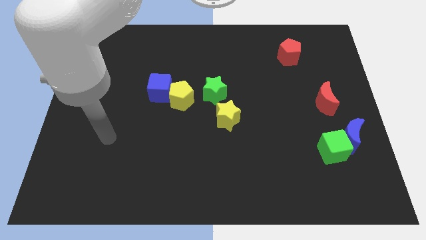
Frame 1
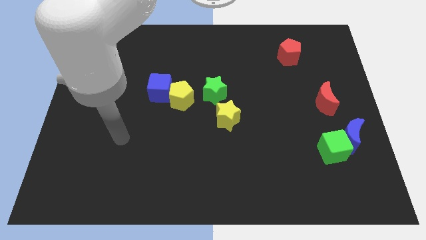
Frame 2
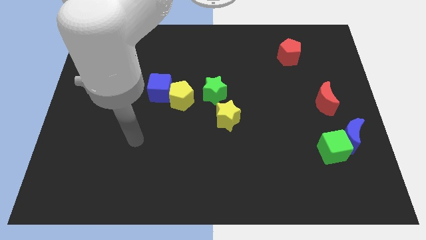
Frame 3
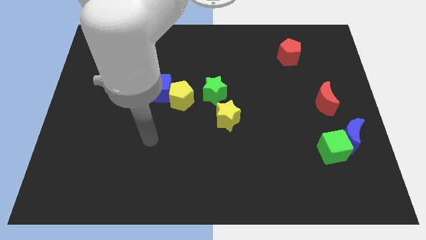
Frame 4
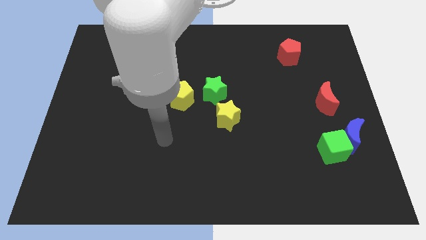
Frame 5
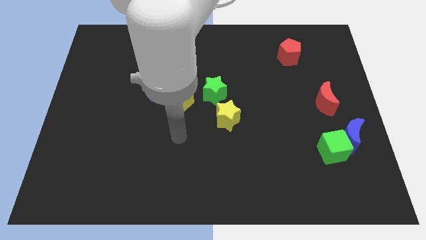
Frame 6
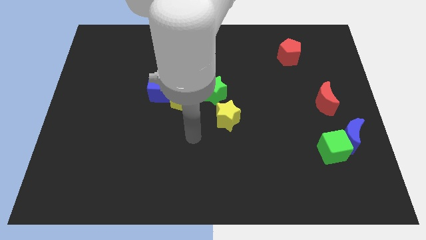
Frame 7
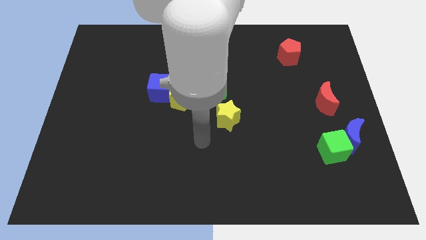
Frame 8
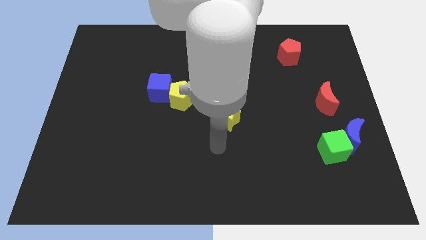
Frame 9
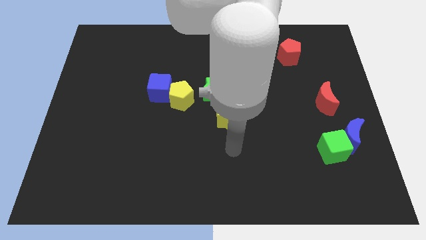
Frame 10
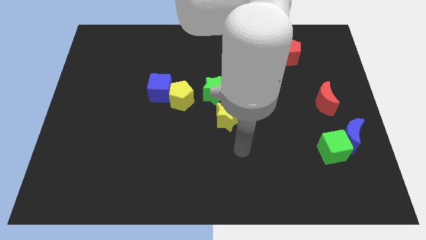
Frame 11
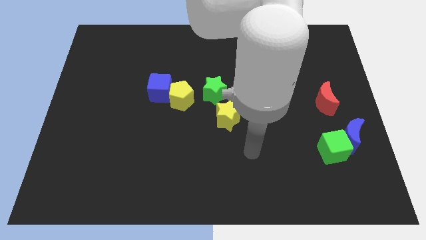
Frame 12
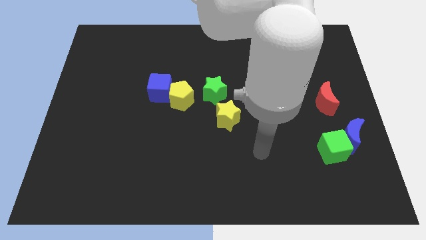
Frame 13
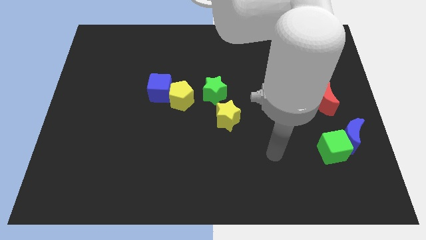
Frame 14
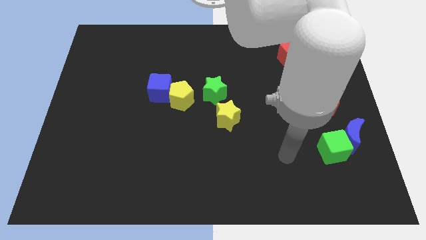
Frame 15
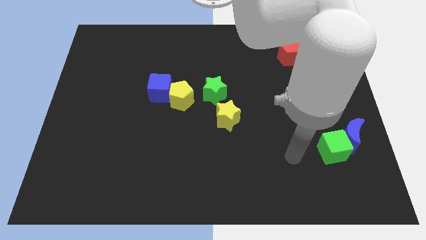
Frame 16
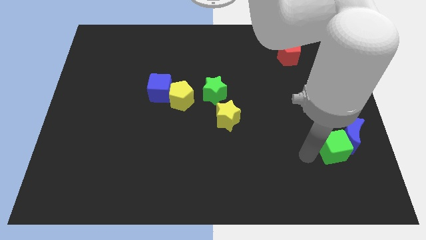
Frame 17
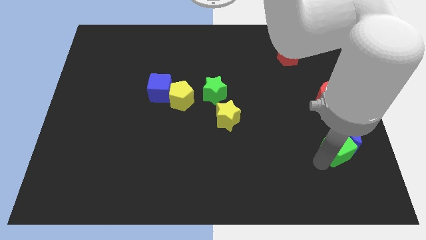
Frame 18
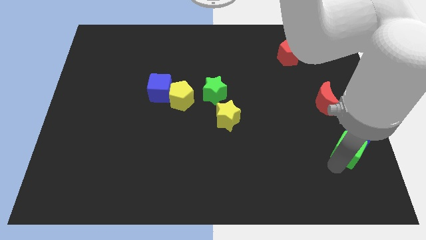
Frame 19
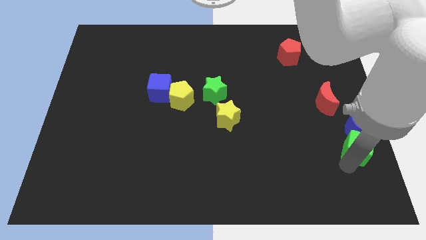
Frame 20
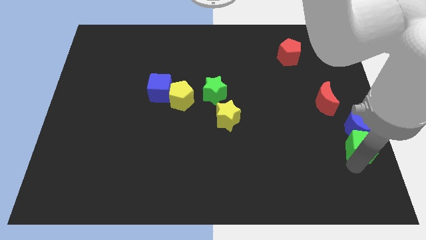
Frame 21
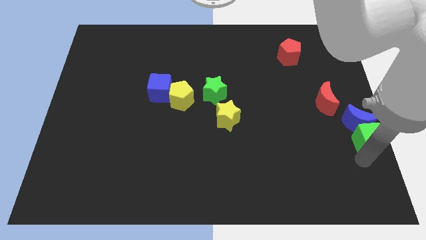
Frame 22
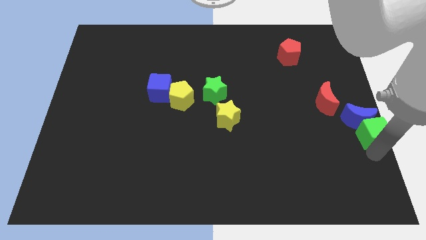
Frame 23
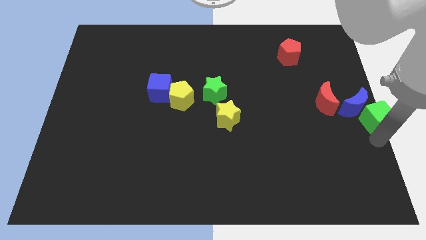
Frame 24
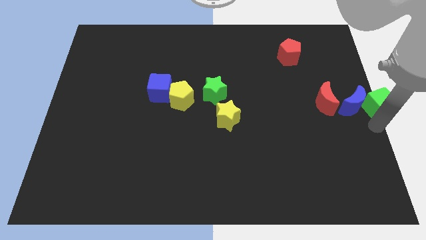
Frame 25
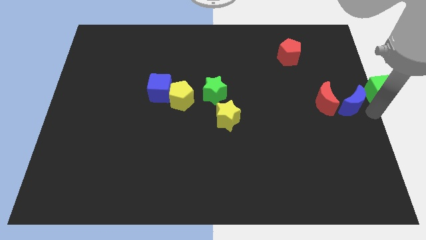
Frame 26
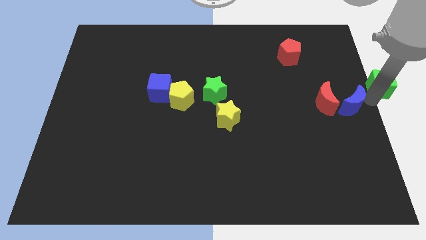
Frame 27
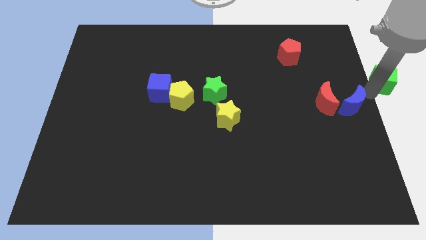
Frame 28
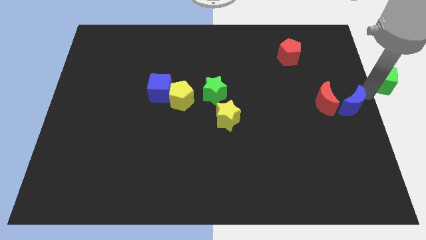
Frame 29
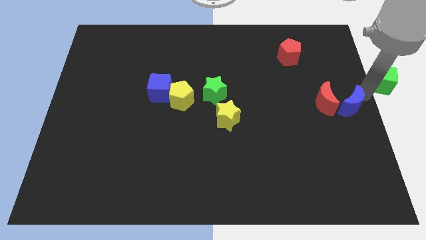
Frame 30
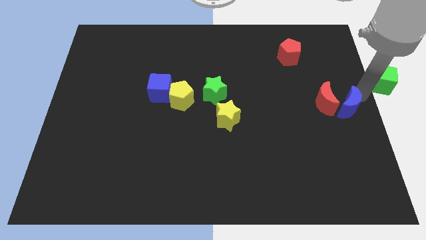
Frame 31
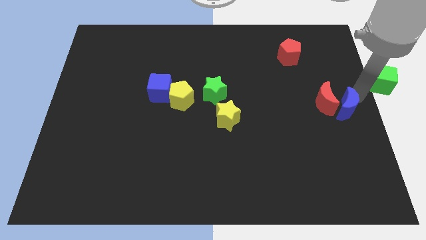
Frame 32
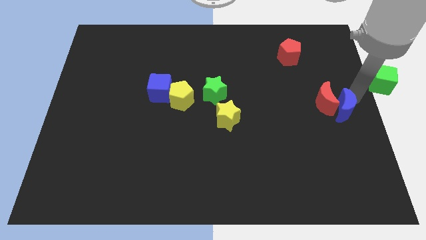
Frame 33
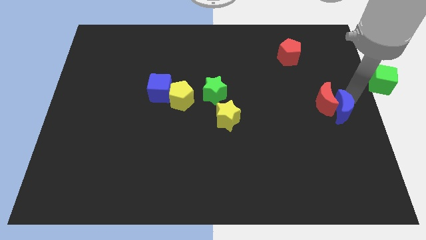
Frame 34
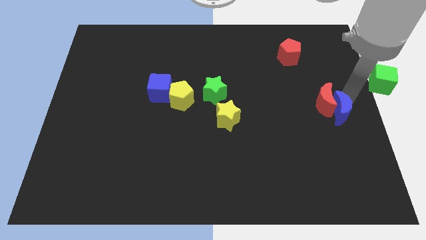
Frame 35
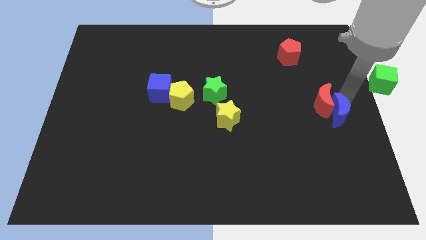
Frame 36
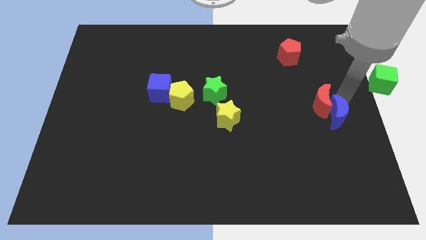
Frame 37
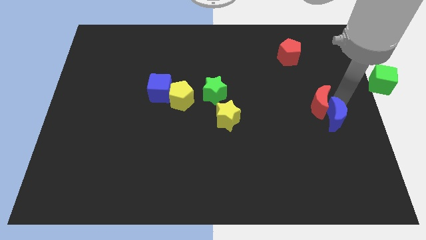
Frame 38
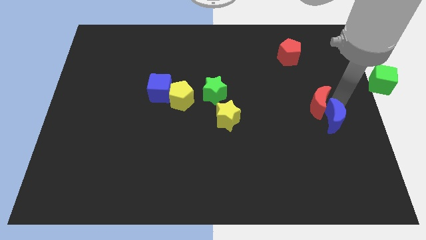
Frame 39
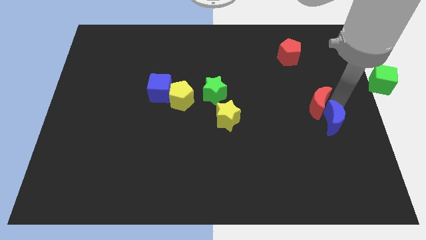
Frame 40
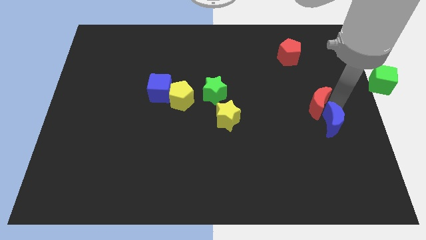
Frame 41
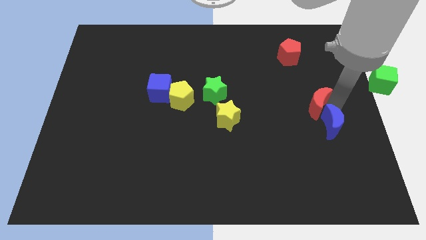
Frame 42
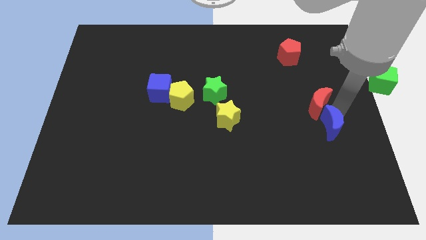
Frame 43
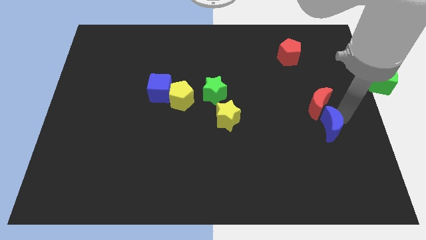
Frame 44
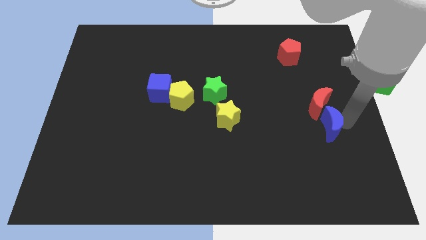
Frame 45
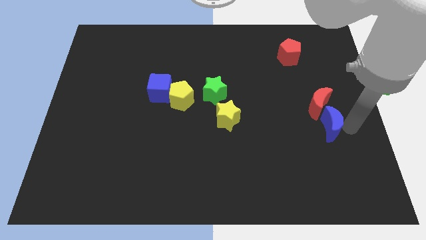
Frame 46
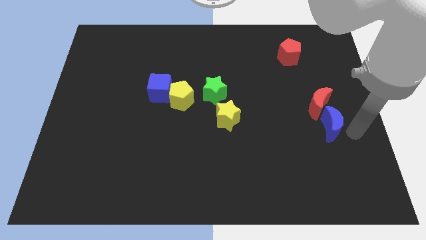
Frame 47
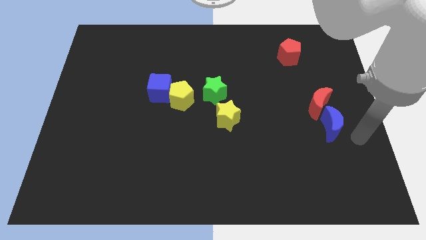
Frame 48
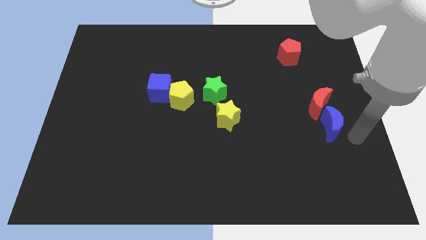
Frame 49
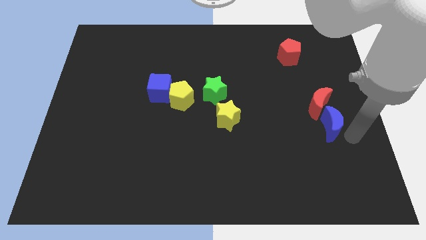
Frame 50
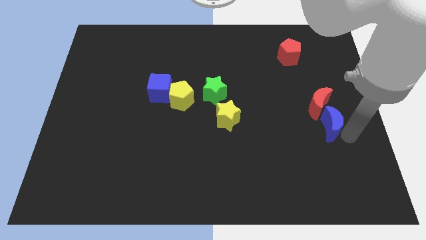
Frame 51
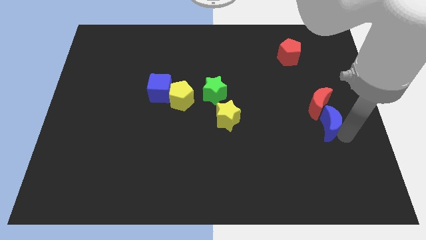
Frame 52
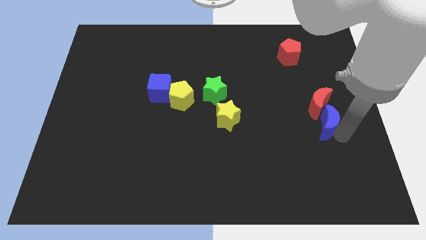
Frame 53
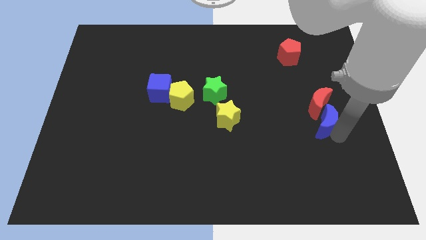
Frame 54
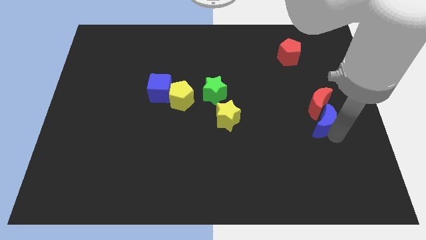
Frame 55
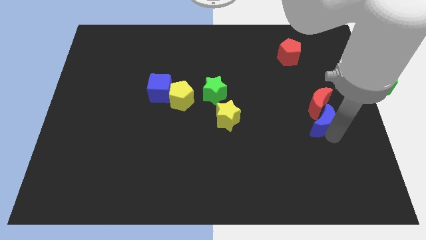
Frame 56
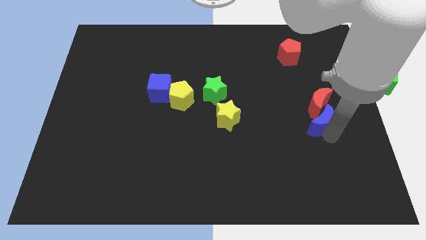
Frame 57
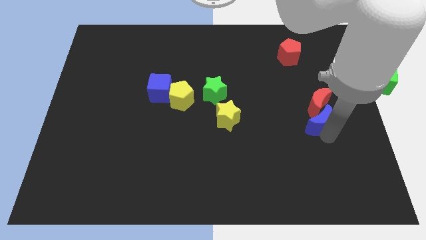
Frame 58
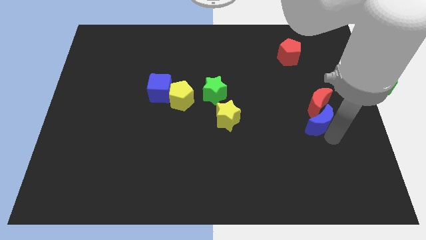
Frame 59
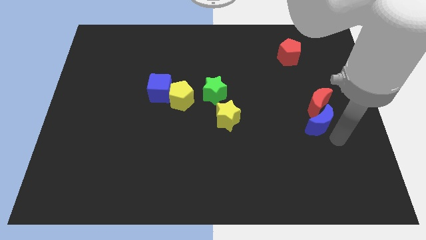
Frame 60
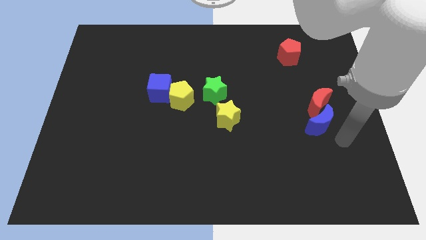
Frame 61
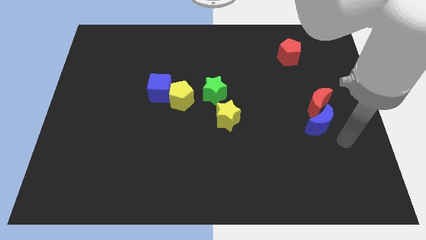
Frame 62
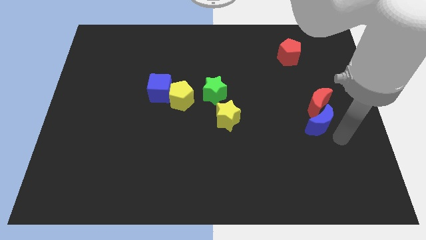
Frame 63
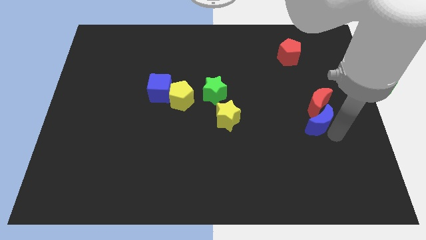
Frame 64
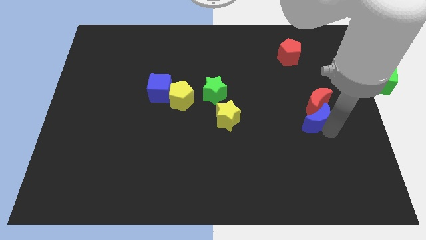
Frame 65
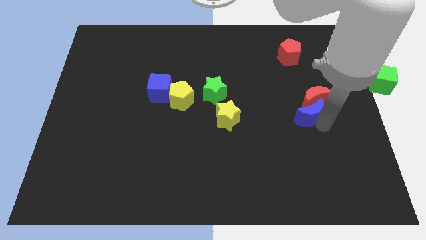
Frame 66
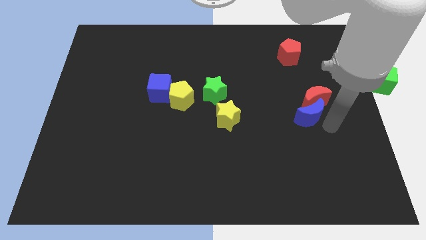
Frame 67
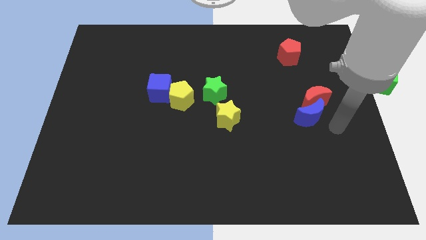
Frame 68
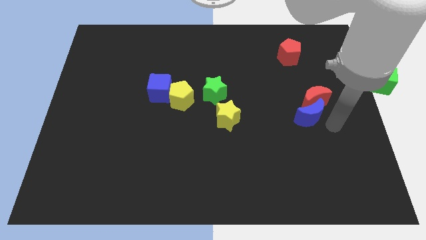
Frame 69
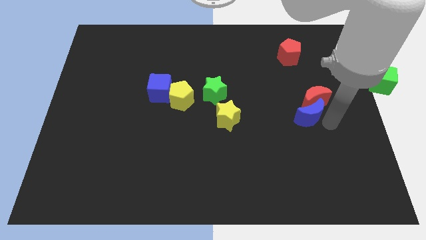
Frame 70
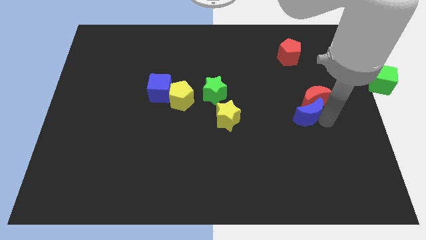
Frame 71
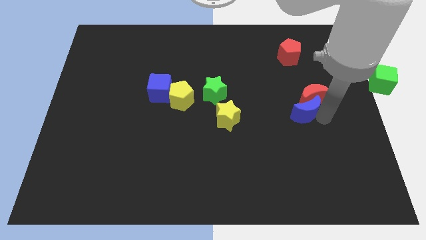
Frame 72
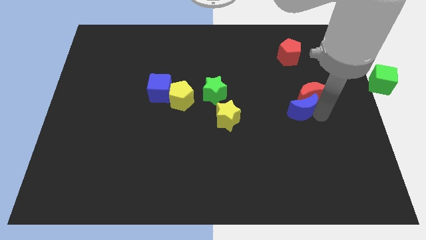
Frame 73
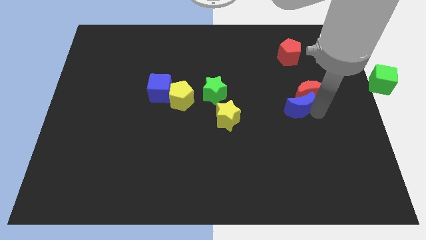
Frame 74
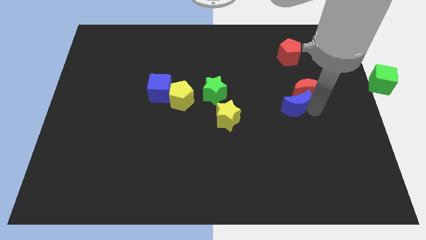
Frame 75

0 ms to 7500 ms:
put the blue moon left of the red moon
